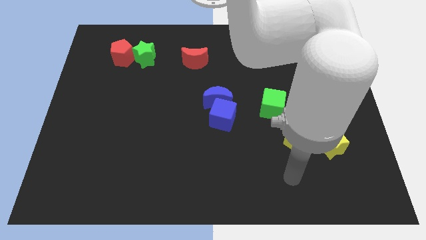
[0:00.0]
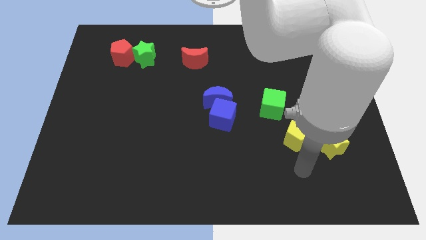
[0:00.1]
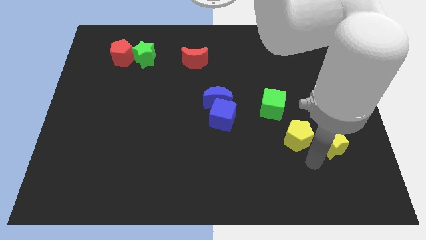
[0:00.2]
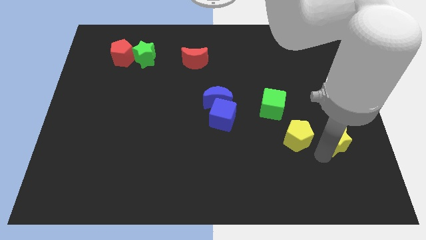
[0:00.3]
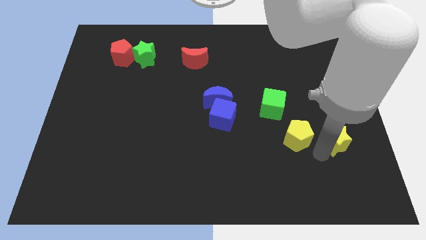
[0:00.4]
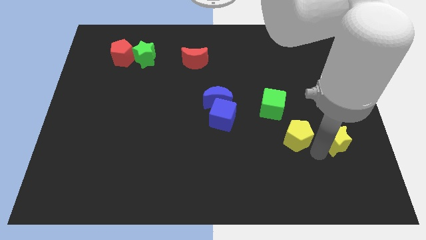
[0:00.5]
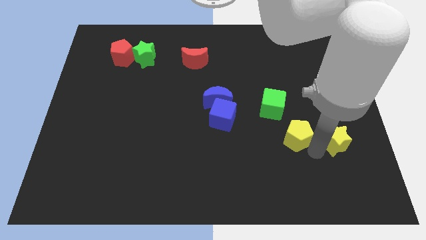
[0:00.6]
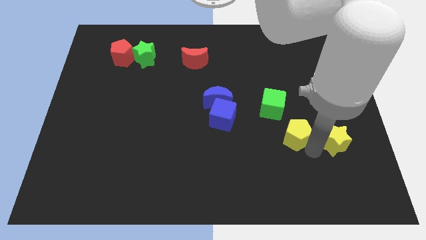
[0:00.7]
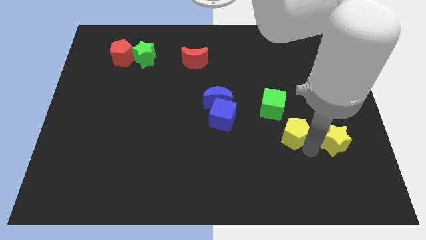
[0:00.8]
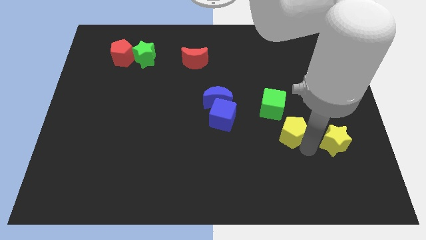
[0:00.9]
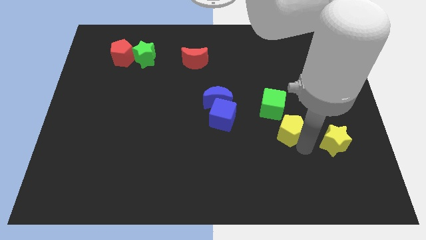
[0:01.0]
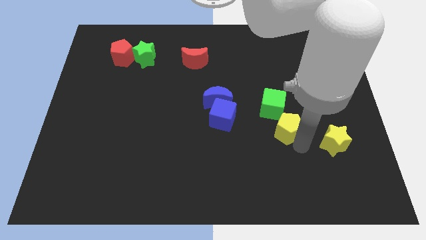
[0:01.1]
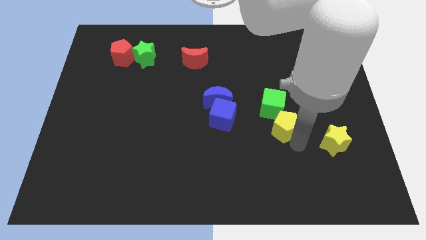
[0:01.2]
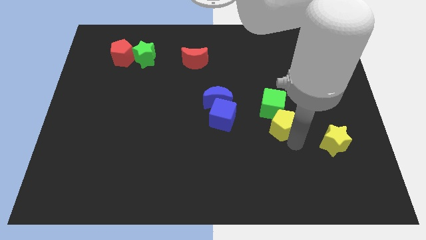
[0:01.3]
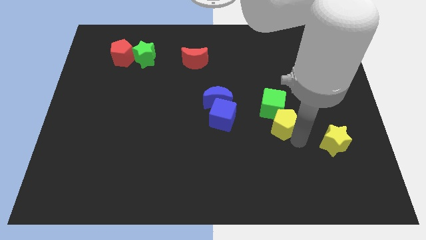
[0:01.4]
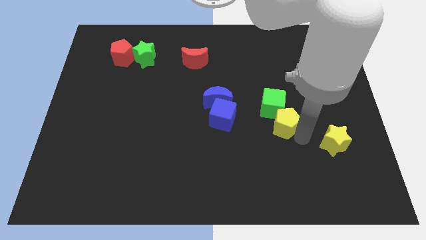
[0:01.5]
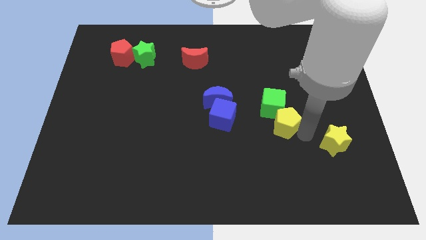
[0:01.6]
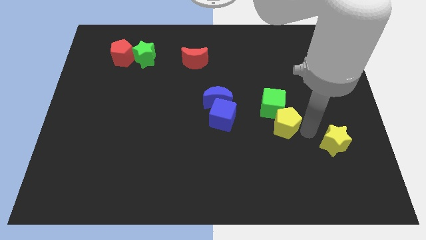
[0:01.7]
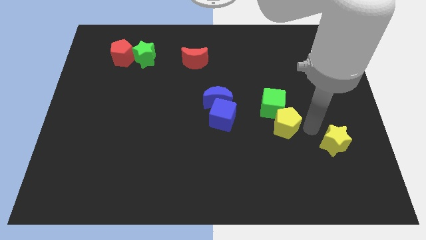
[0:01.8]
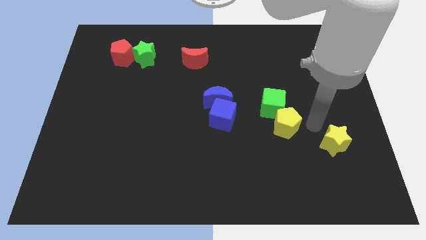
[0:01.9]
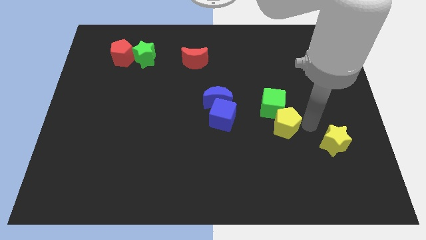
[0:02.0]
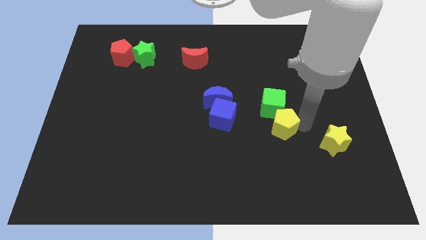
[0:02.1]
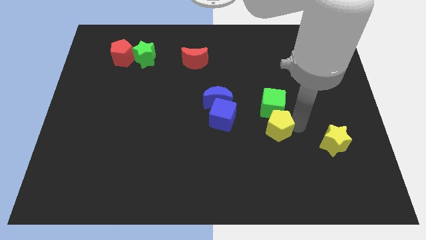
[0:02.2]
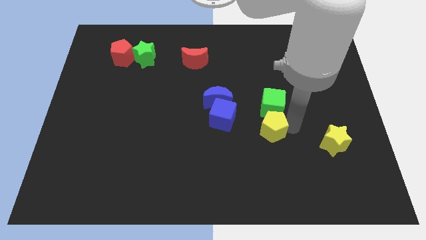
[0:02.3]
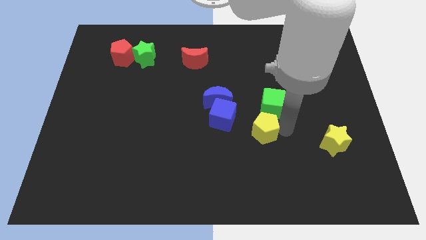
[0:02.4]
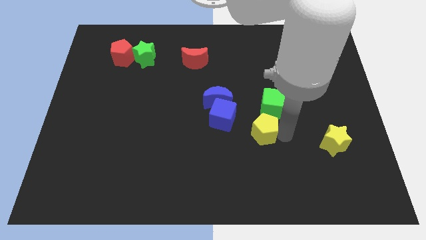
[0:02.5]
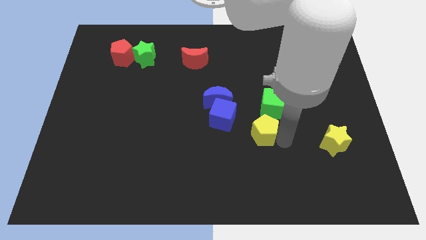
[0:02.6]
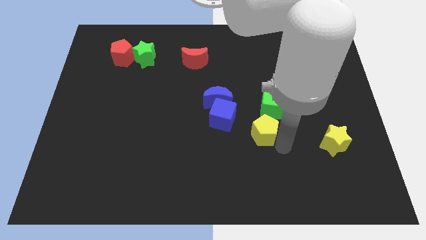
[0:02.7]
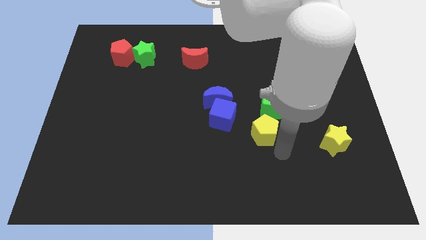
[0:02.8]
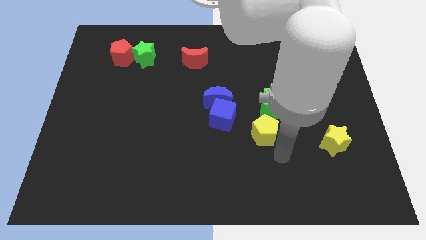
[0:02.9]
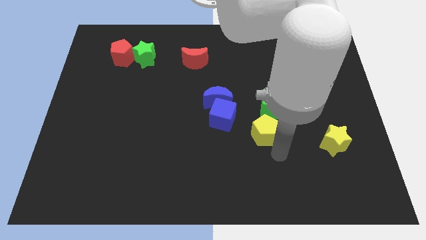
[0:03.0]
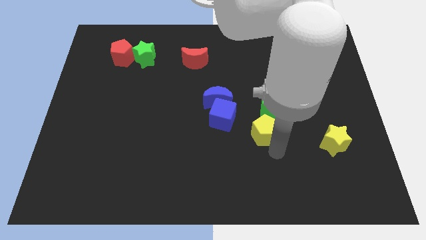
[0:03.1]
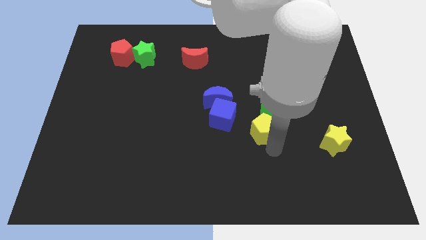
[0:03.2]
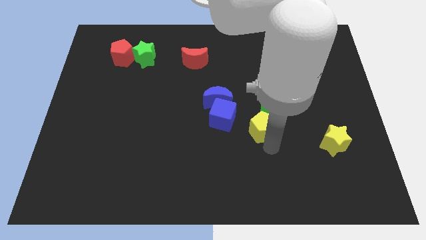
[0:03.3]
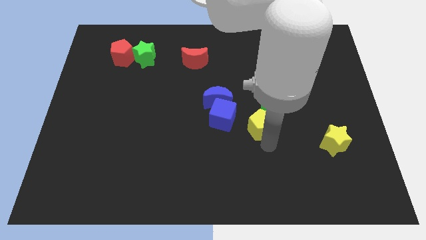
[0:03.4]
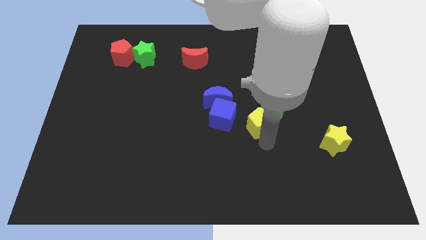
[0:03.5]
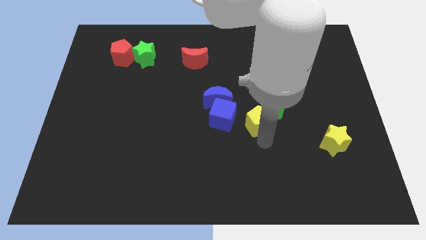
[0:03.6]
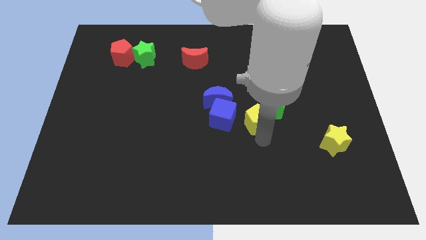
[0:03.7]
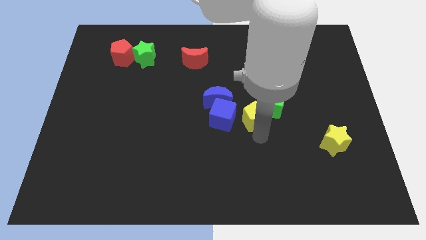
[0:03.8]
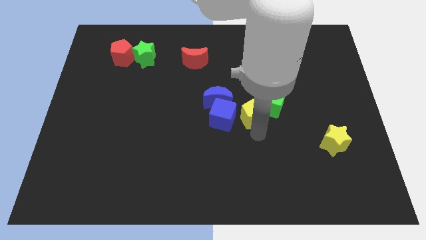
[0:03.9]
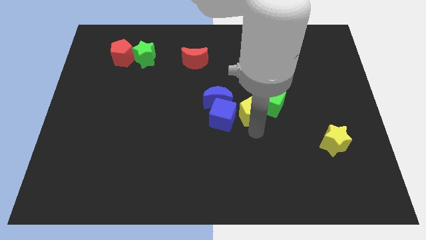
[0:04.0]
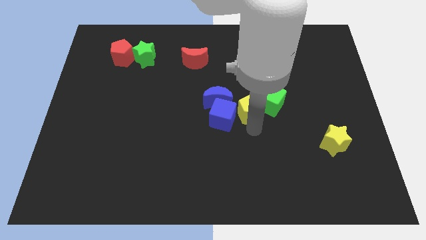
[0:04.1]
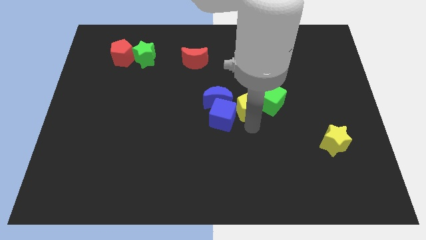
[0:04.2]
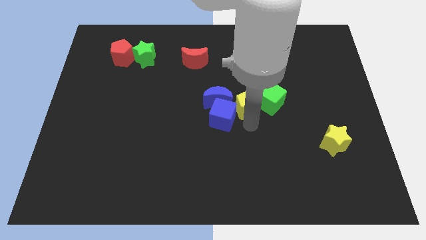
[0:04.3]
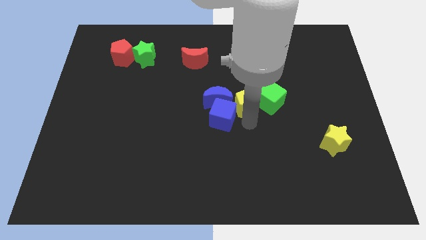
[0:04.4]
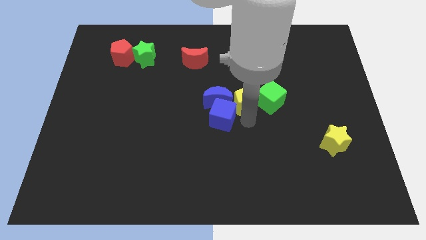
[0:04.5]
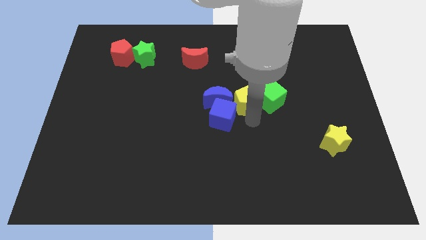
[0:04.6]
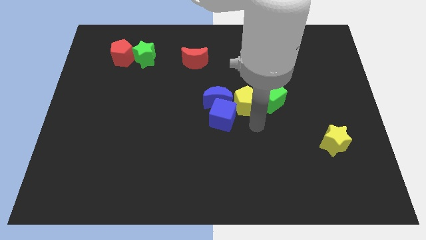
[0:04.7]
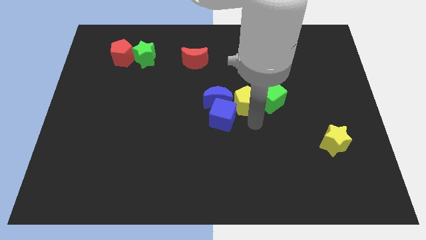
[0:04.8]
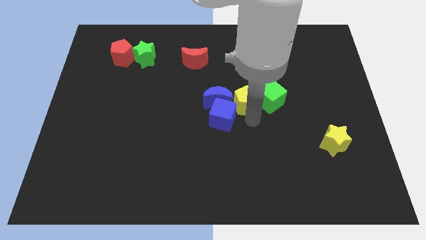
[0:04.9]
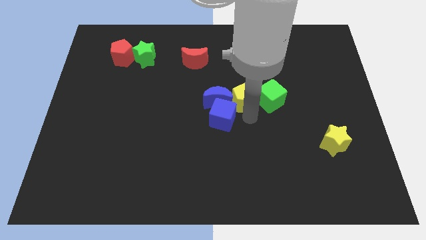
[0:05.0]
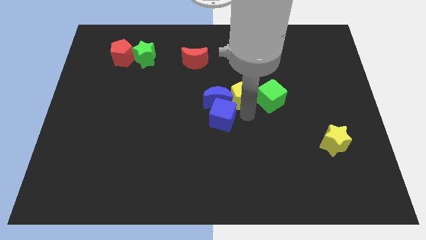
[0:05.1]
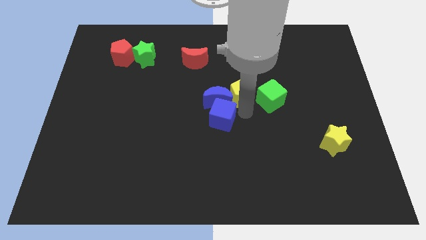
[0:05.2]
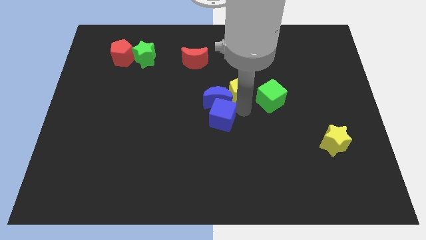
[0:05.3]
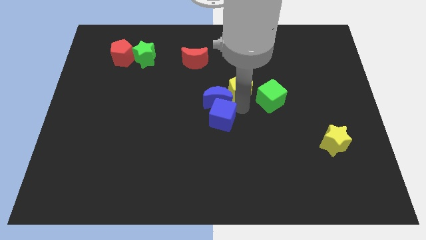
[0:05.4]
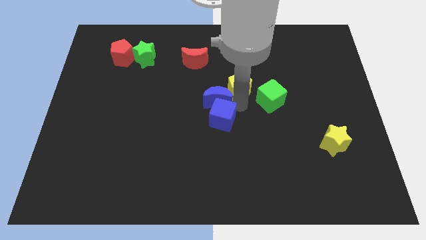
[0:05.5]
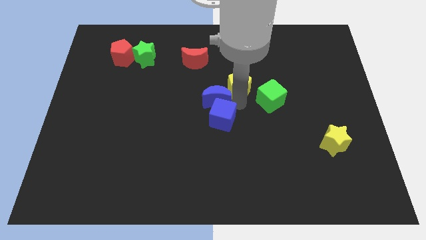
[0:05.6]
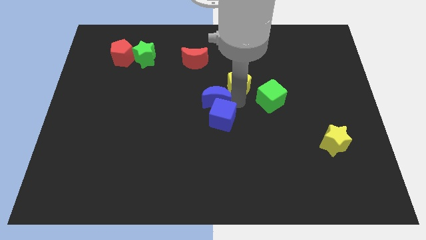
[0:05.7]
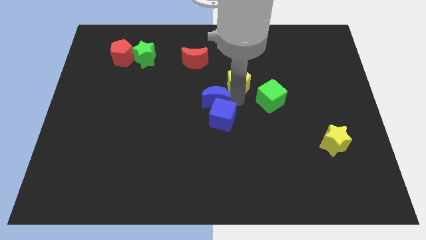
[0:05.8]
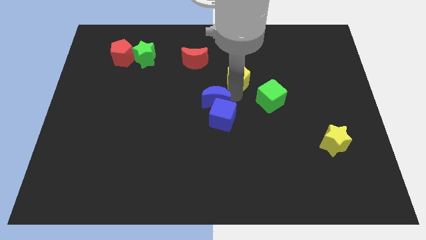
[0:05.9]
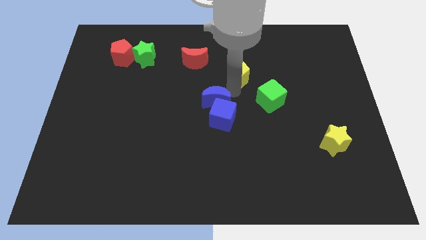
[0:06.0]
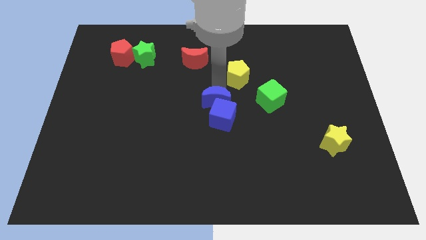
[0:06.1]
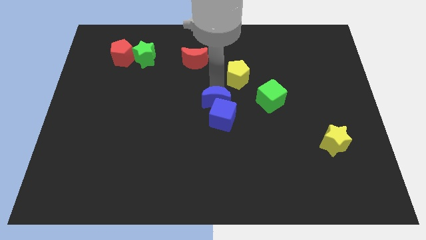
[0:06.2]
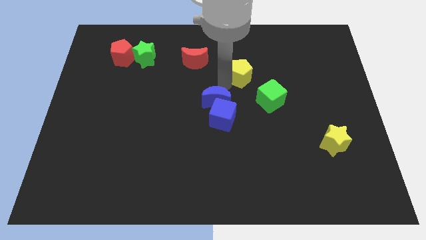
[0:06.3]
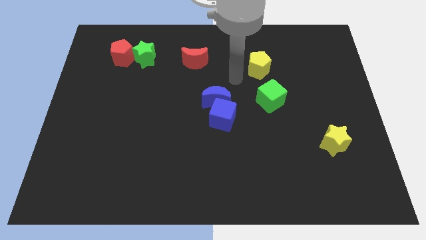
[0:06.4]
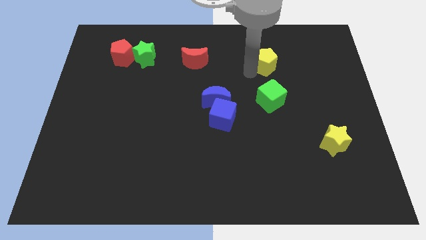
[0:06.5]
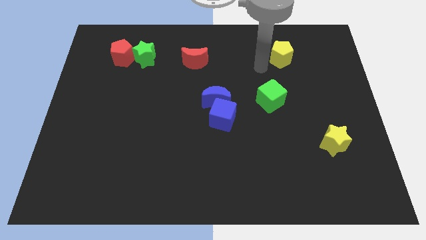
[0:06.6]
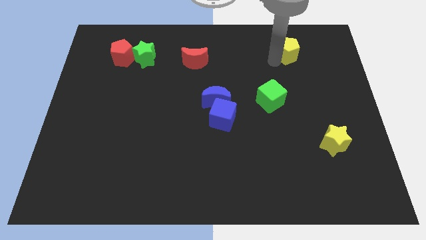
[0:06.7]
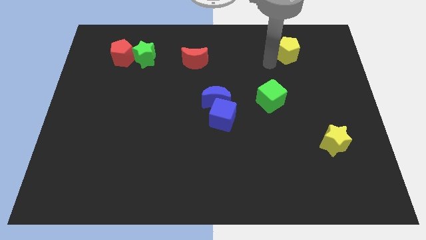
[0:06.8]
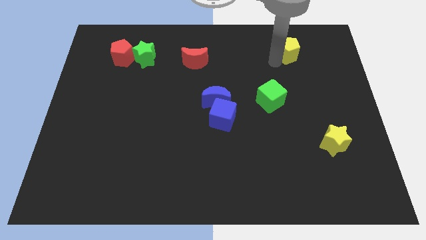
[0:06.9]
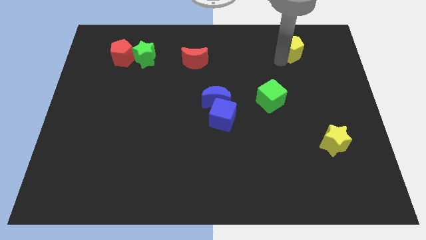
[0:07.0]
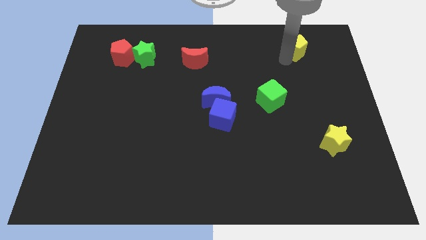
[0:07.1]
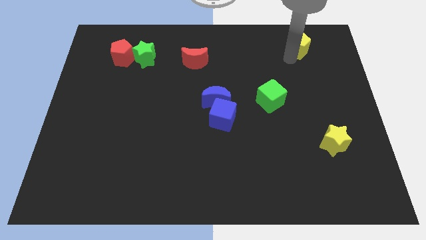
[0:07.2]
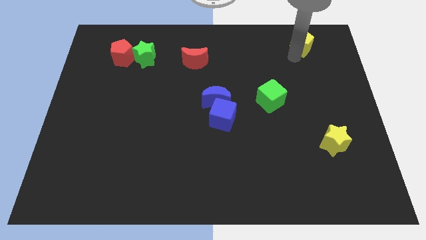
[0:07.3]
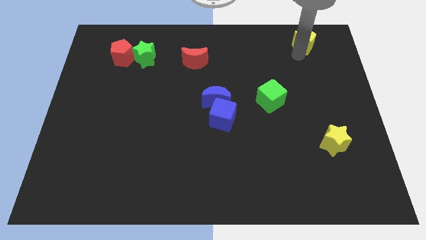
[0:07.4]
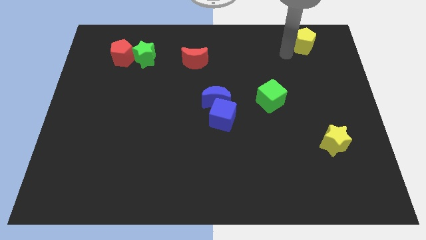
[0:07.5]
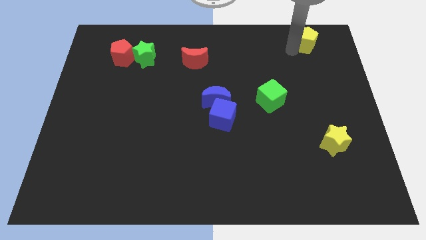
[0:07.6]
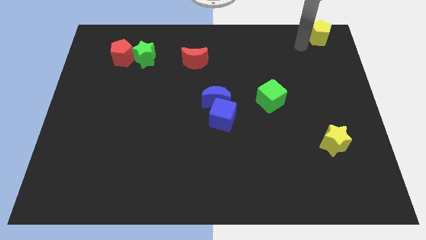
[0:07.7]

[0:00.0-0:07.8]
push the yellow pentagon to the top right corner
